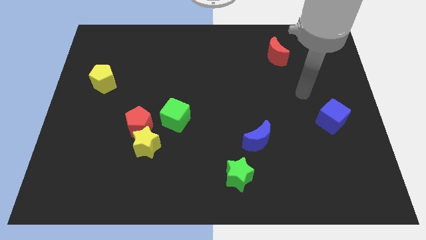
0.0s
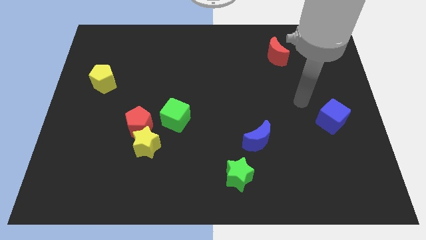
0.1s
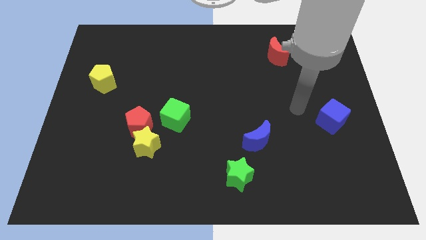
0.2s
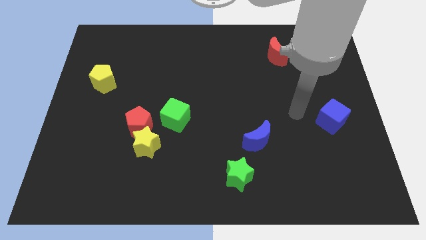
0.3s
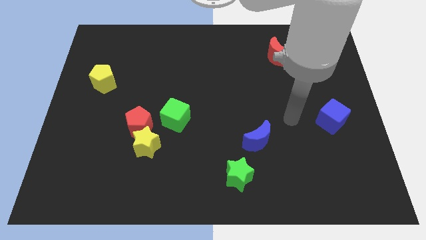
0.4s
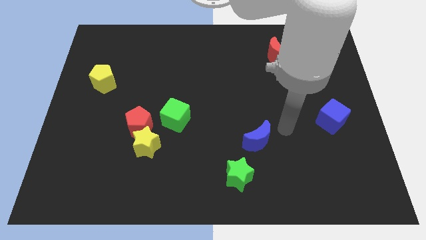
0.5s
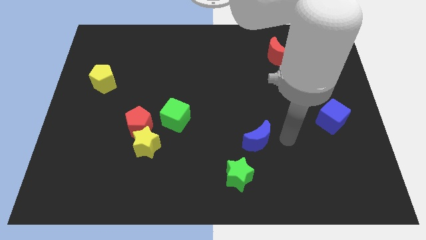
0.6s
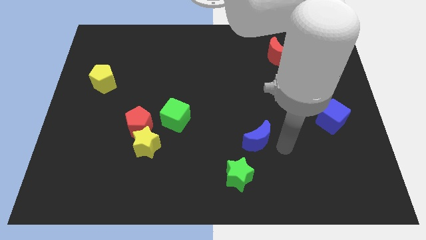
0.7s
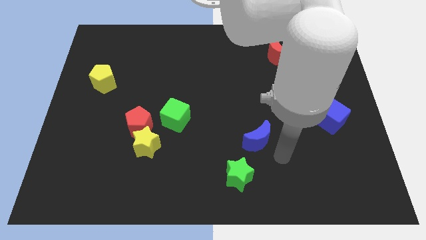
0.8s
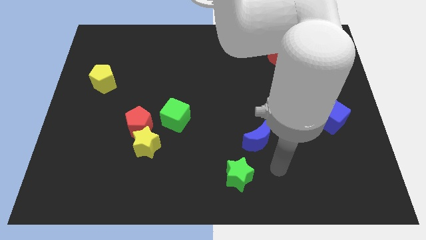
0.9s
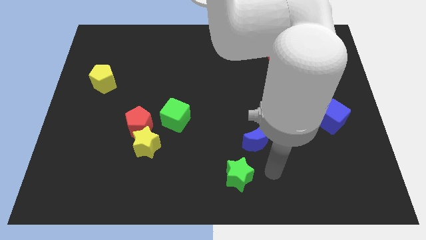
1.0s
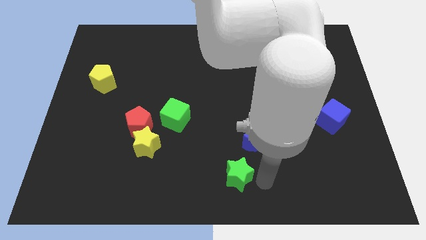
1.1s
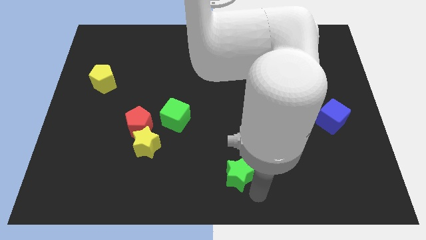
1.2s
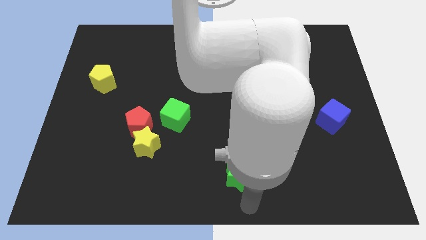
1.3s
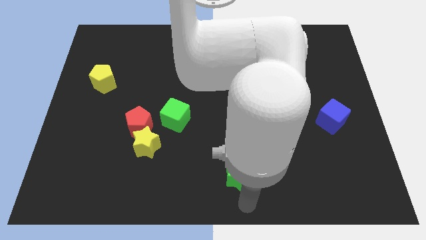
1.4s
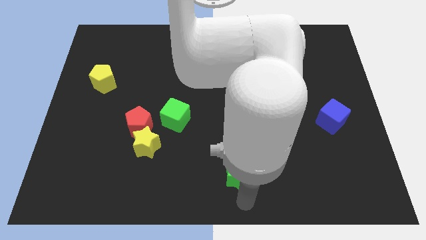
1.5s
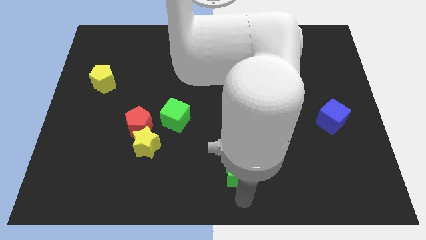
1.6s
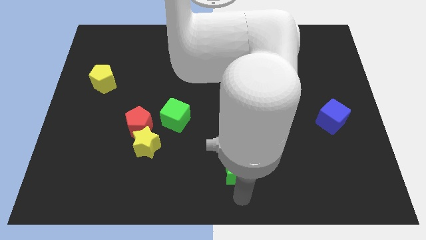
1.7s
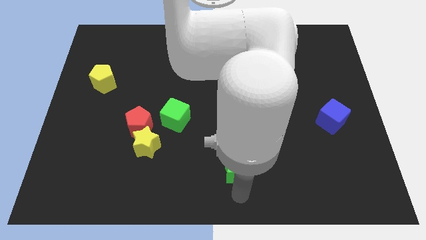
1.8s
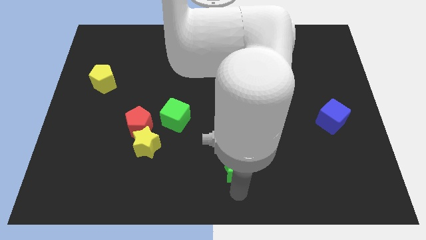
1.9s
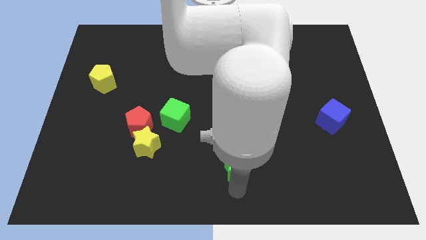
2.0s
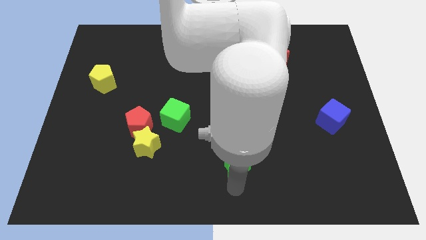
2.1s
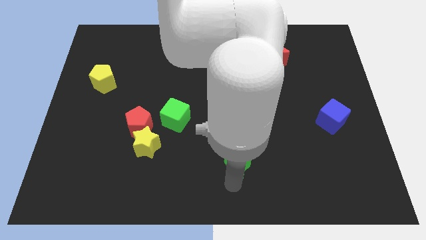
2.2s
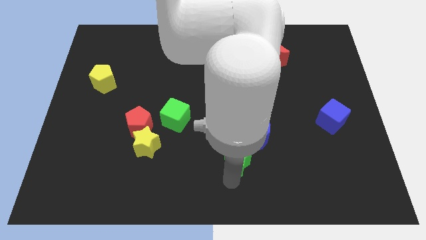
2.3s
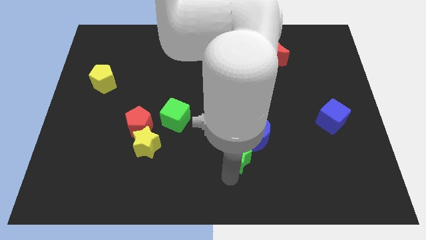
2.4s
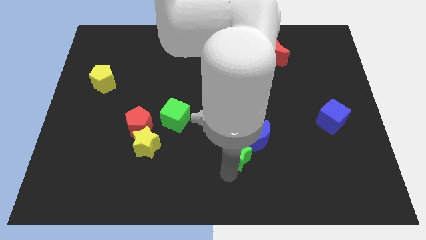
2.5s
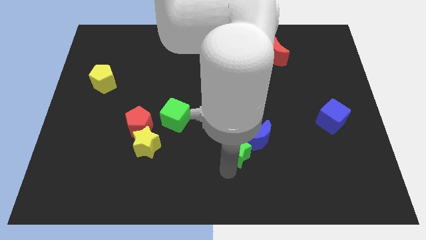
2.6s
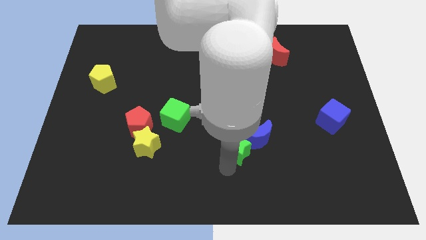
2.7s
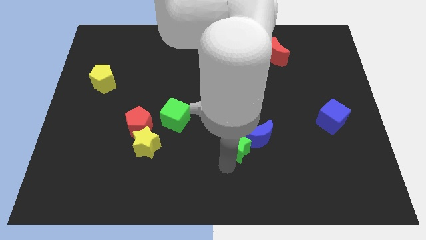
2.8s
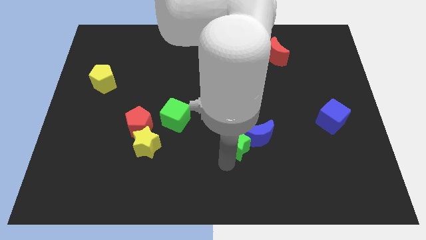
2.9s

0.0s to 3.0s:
slightly move the green star up

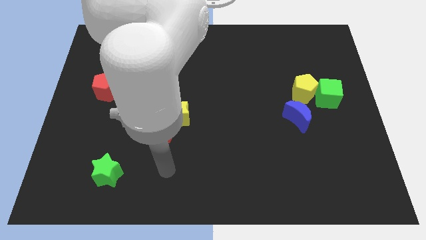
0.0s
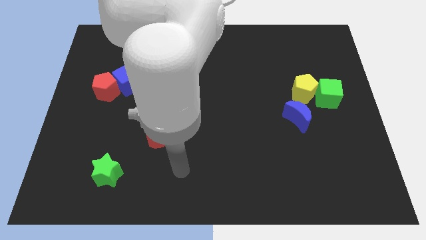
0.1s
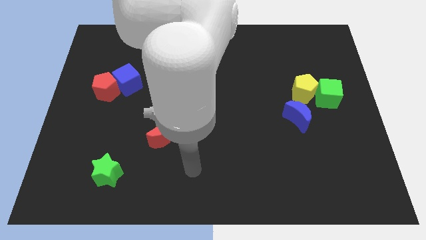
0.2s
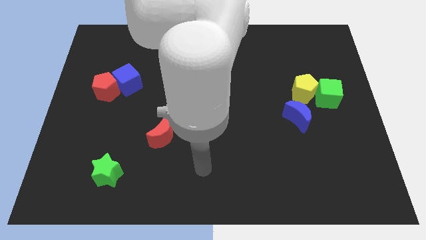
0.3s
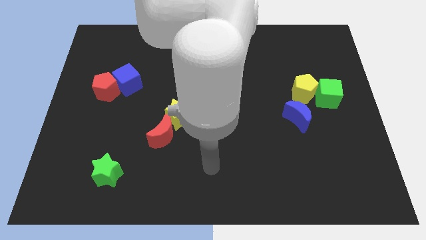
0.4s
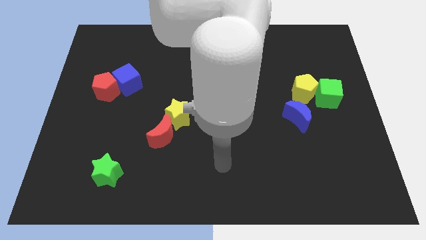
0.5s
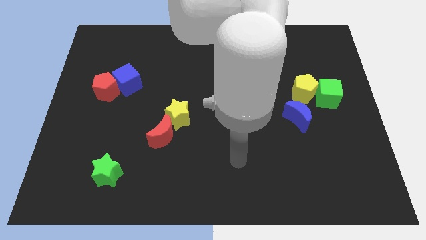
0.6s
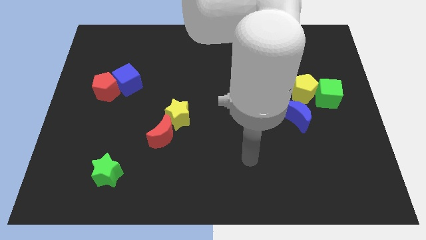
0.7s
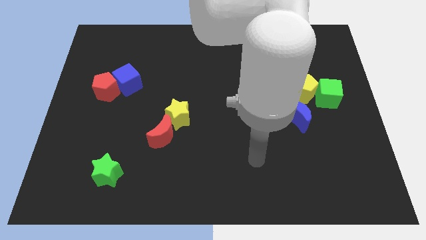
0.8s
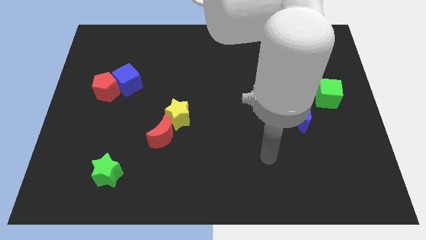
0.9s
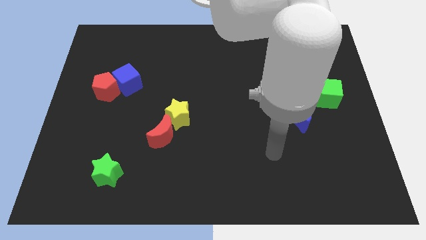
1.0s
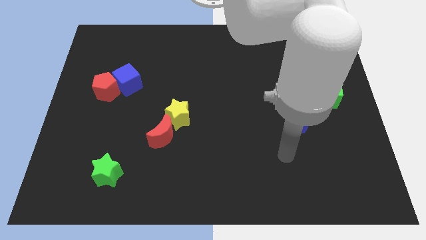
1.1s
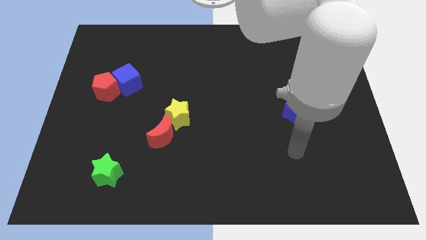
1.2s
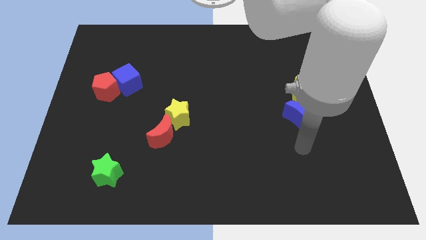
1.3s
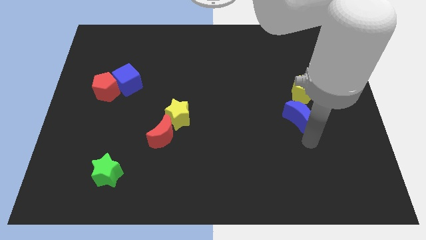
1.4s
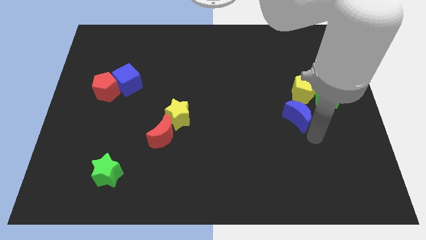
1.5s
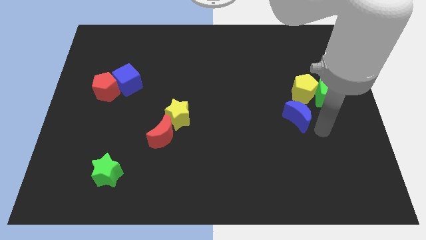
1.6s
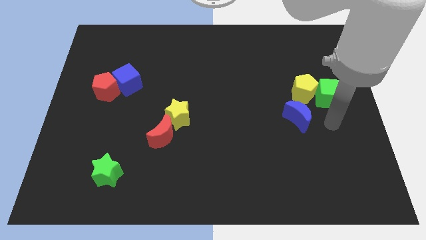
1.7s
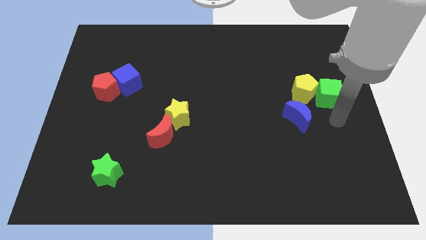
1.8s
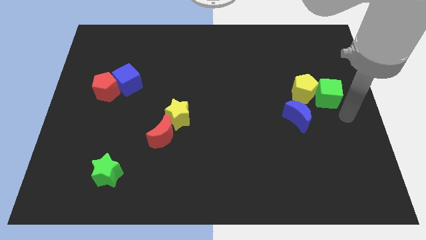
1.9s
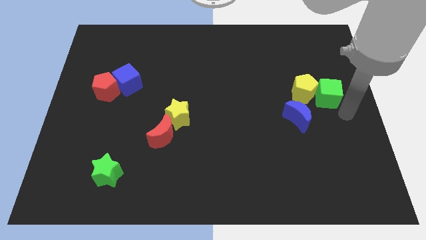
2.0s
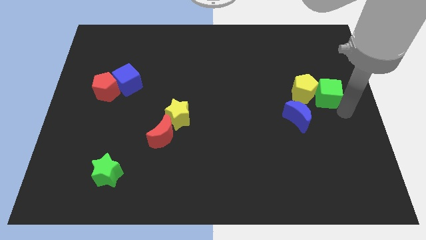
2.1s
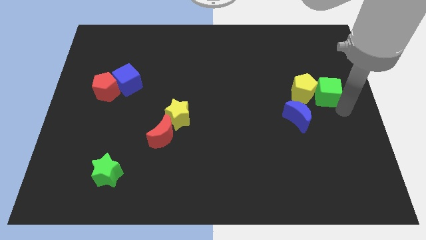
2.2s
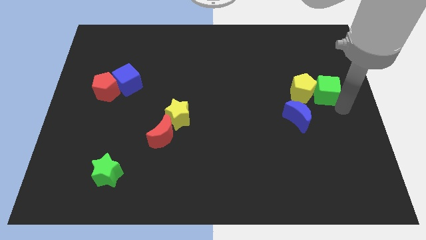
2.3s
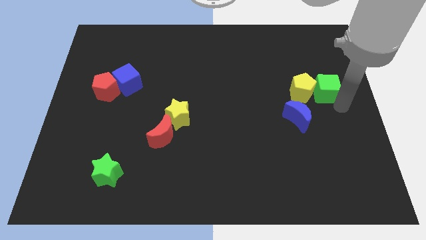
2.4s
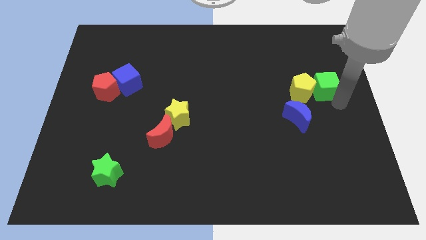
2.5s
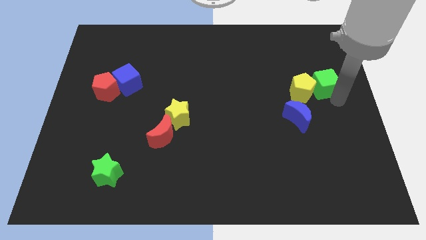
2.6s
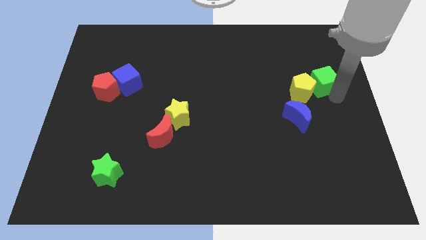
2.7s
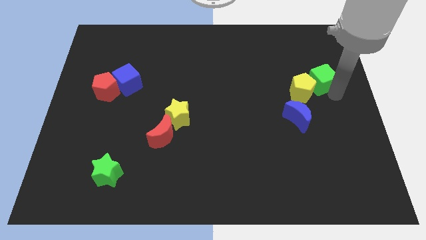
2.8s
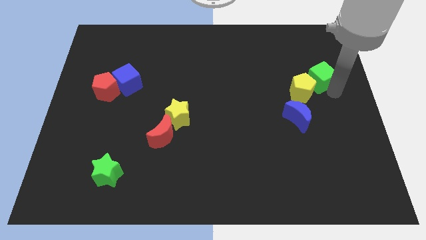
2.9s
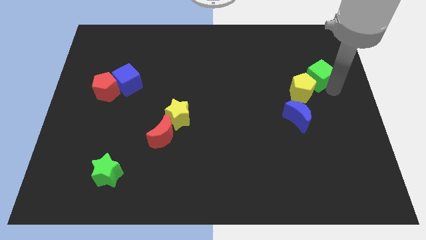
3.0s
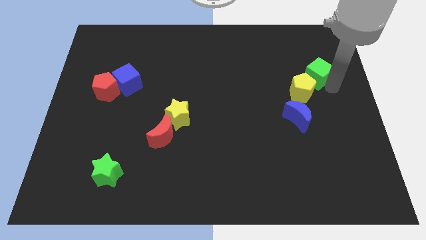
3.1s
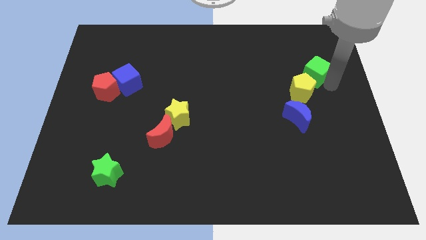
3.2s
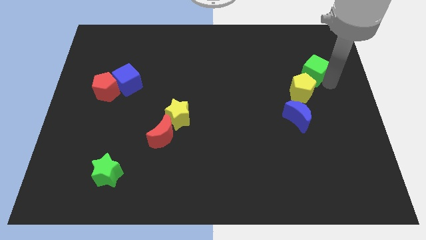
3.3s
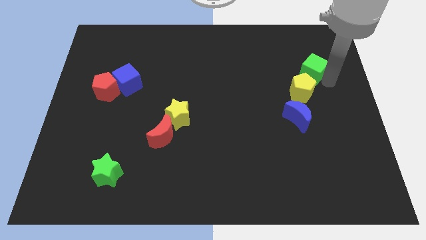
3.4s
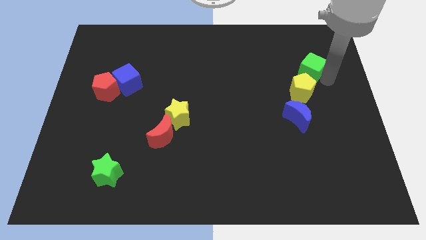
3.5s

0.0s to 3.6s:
slide the green cube slightly up and left

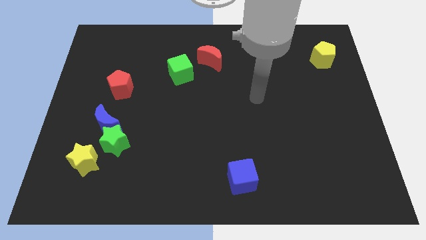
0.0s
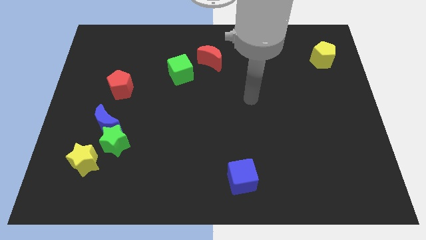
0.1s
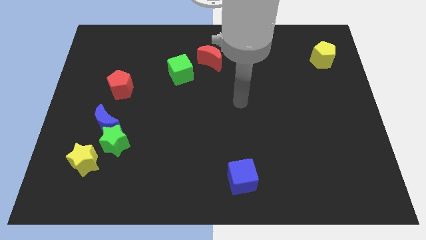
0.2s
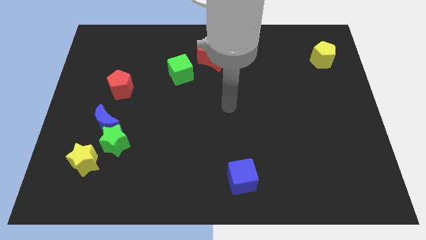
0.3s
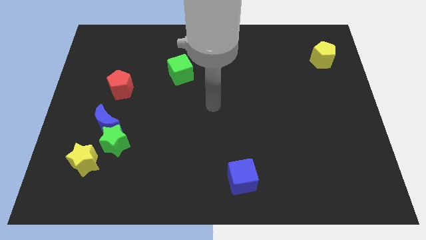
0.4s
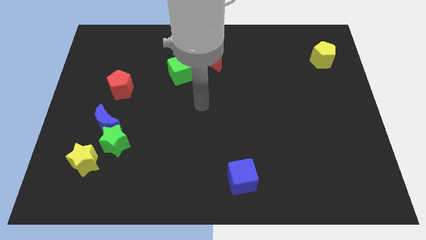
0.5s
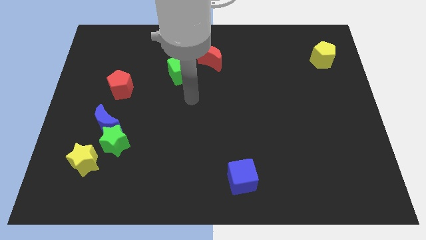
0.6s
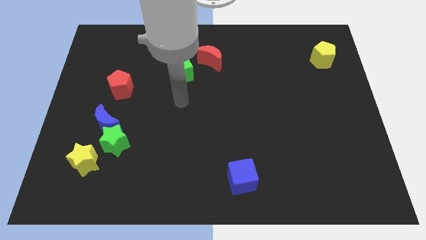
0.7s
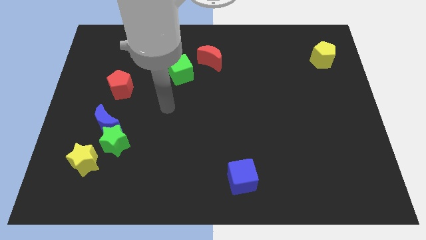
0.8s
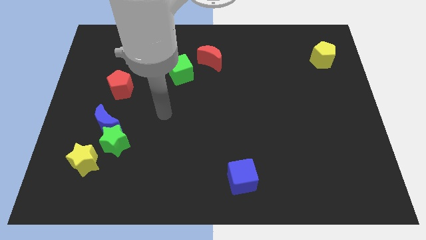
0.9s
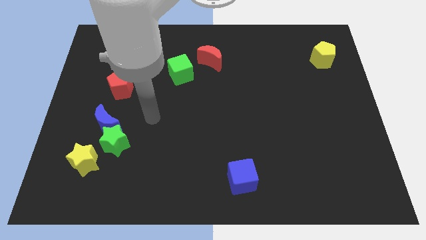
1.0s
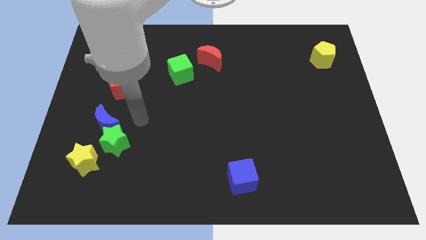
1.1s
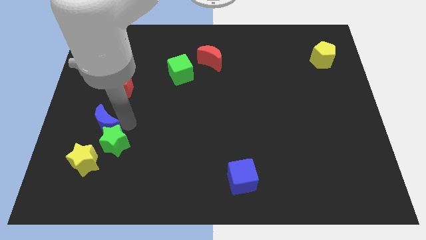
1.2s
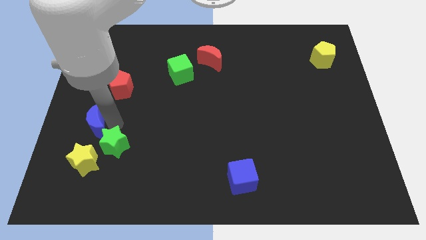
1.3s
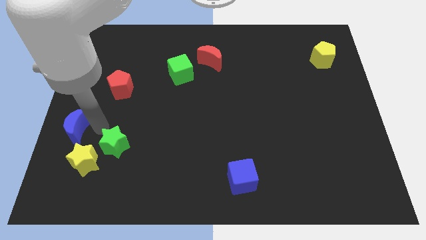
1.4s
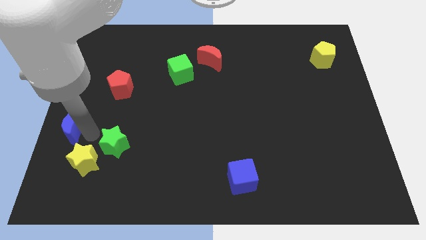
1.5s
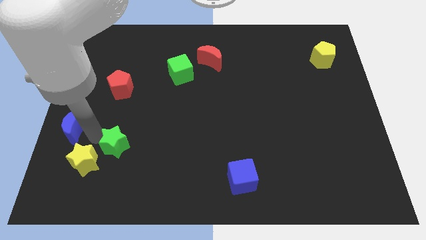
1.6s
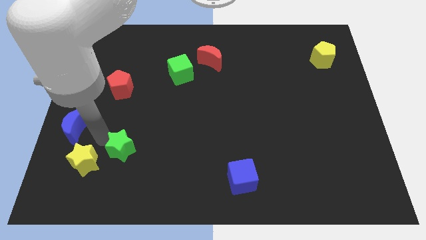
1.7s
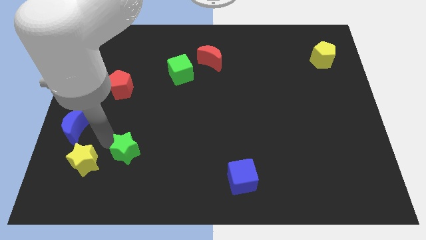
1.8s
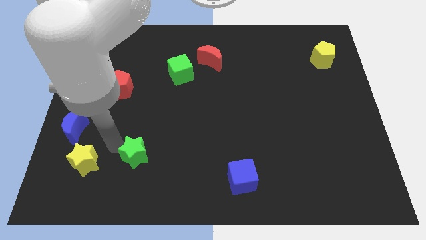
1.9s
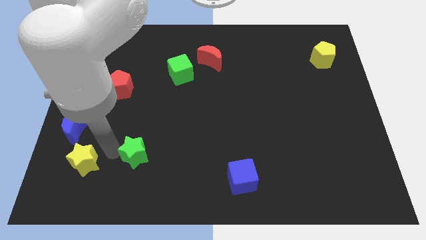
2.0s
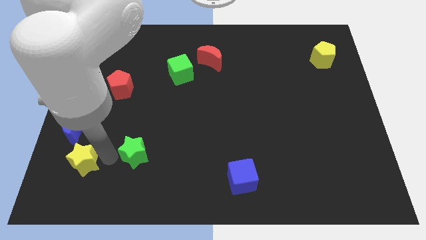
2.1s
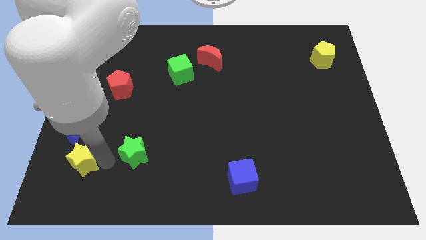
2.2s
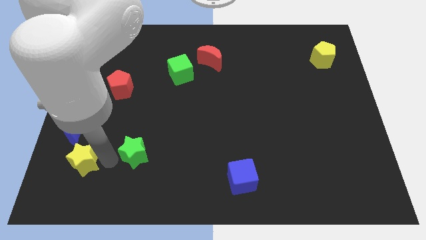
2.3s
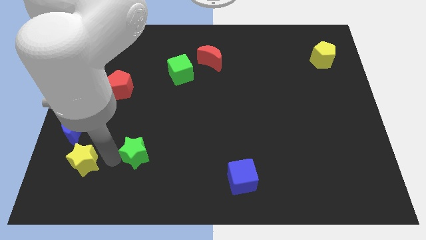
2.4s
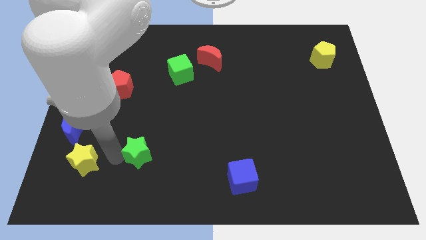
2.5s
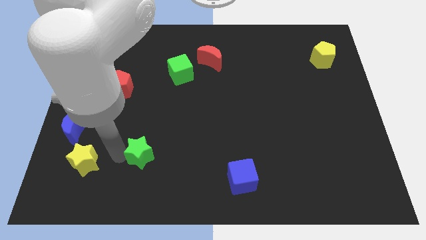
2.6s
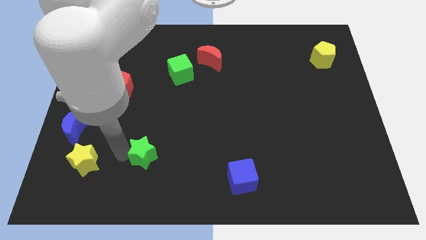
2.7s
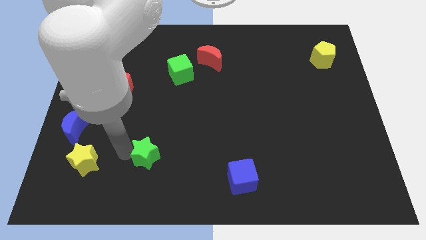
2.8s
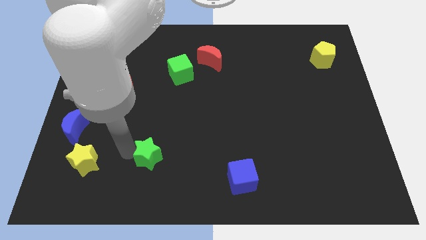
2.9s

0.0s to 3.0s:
slide the green star a bit right
